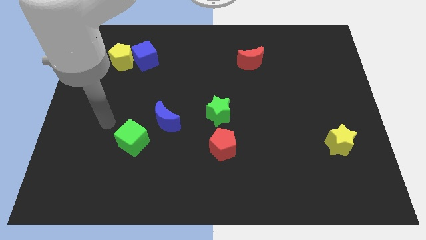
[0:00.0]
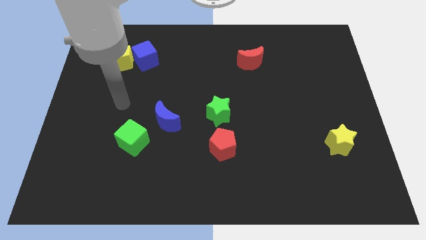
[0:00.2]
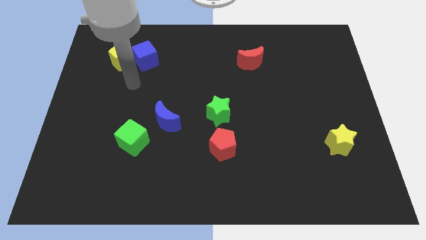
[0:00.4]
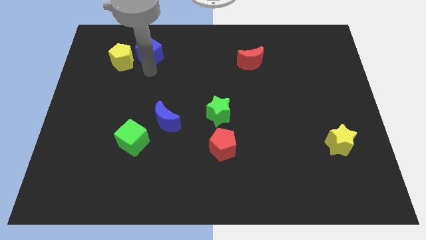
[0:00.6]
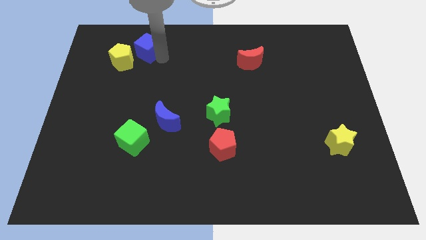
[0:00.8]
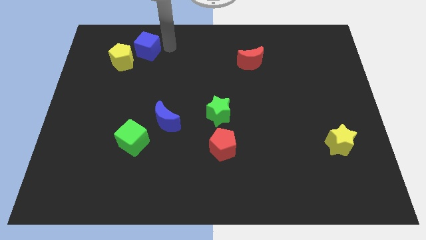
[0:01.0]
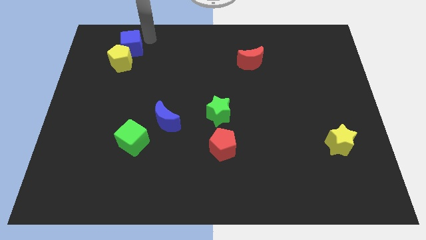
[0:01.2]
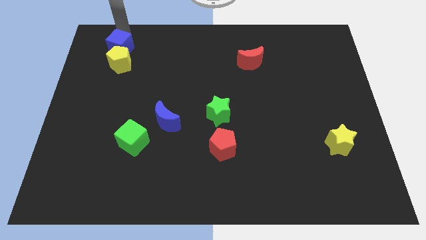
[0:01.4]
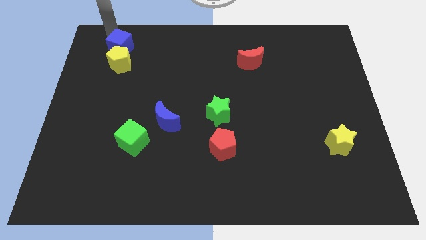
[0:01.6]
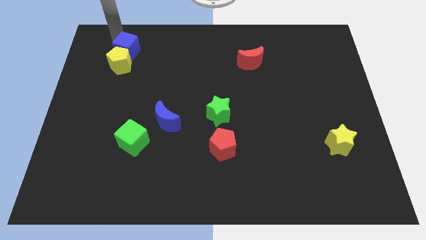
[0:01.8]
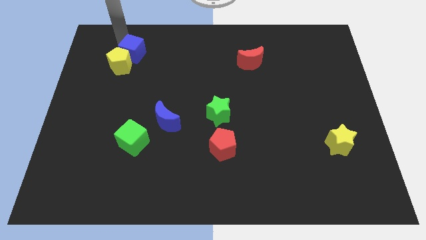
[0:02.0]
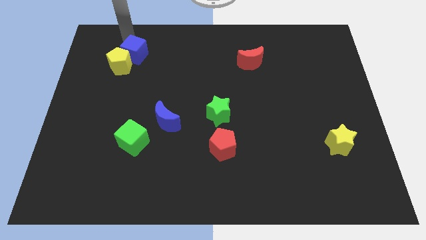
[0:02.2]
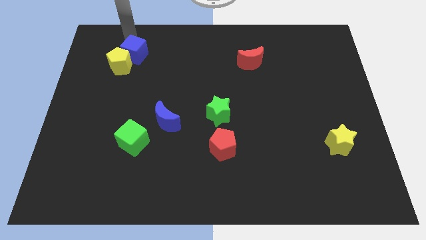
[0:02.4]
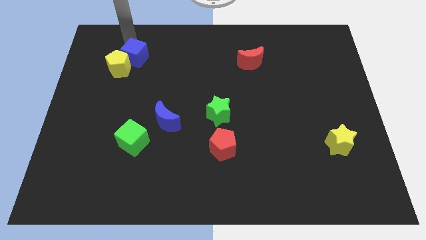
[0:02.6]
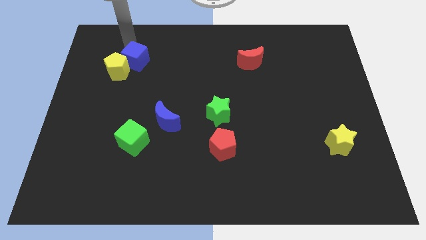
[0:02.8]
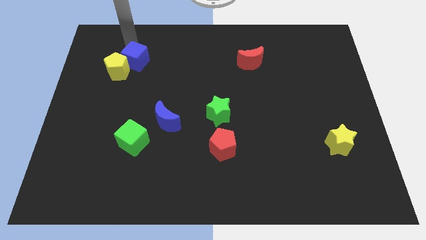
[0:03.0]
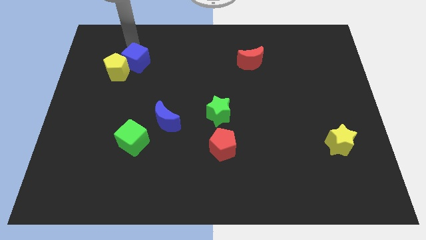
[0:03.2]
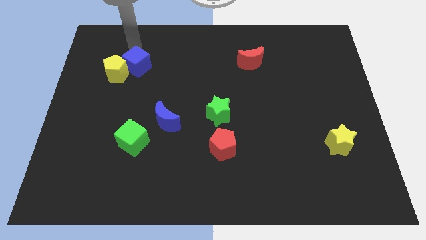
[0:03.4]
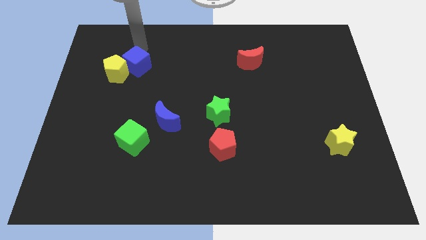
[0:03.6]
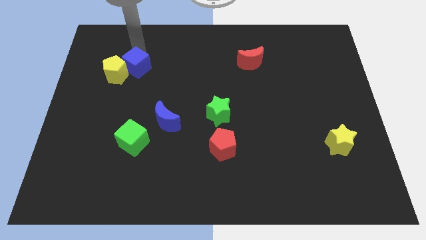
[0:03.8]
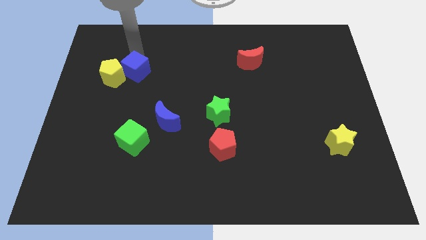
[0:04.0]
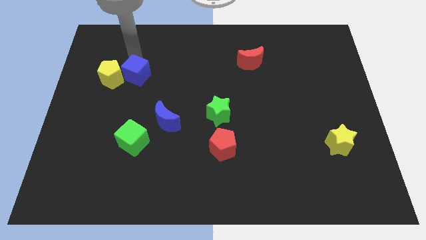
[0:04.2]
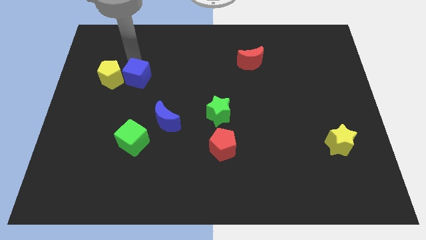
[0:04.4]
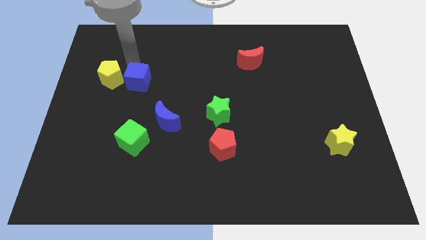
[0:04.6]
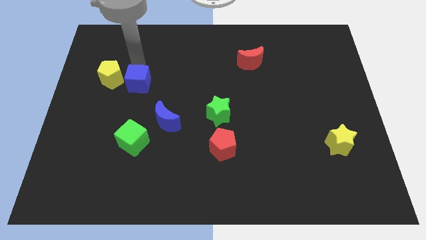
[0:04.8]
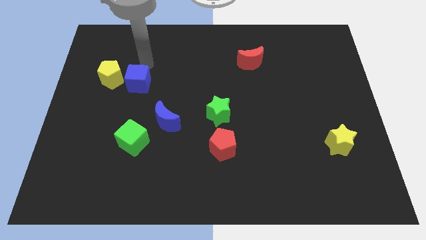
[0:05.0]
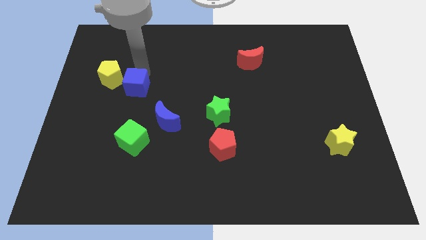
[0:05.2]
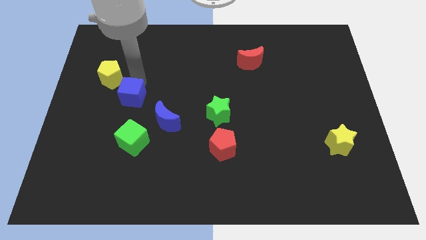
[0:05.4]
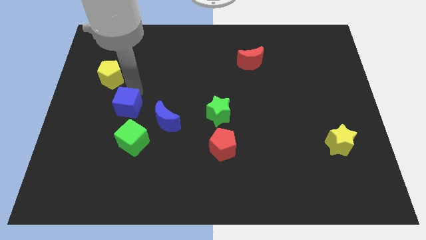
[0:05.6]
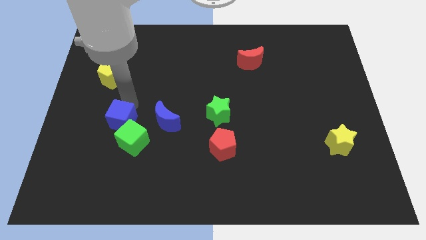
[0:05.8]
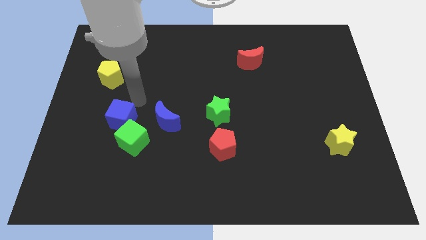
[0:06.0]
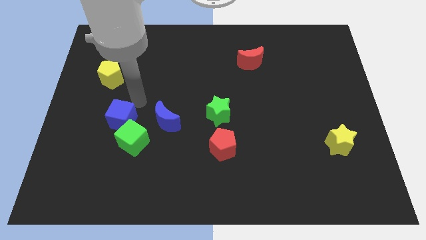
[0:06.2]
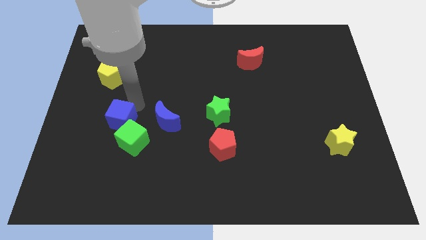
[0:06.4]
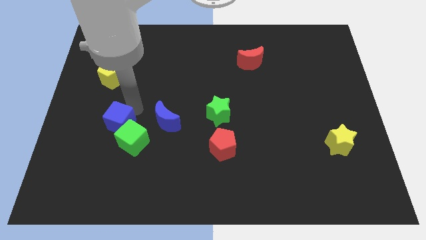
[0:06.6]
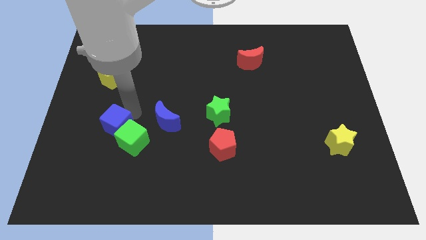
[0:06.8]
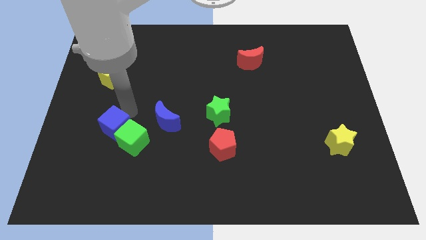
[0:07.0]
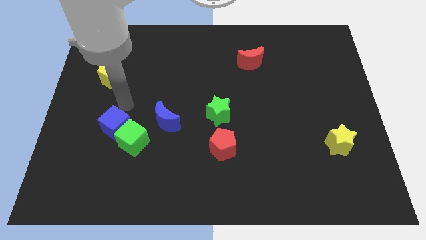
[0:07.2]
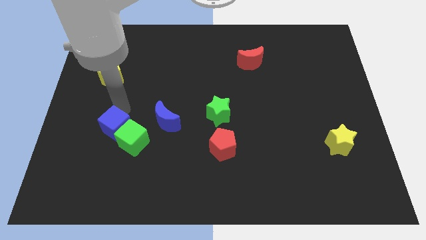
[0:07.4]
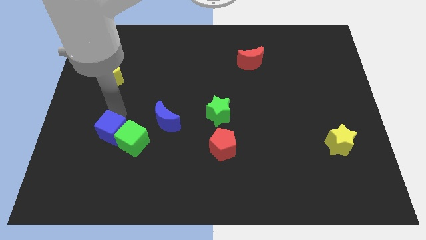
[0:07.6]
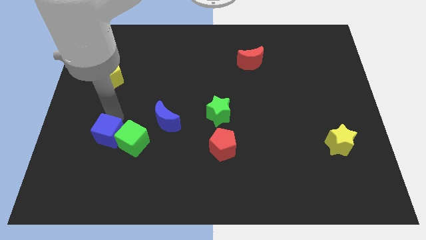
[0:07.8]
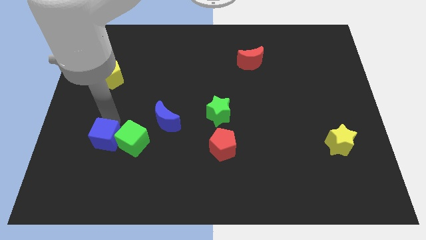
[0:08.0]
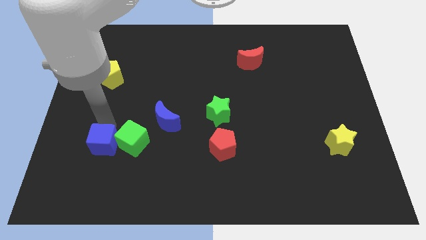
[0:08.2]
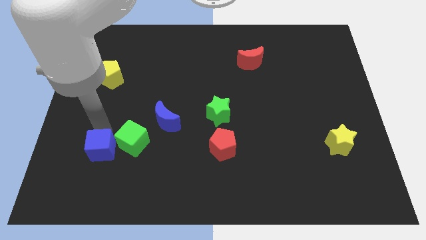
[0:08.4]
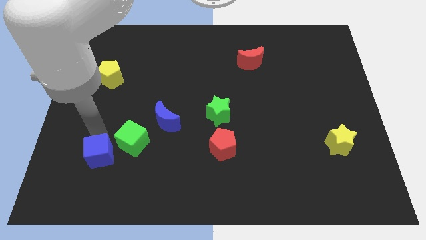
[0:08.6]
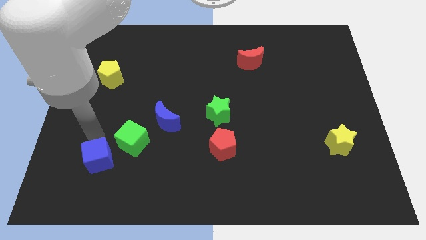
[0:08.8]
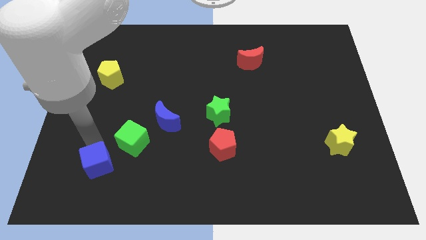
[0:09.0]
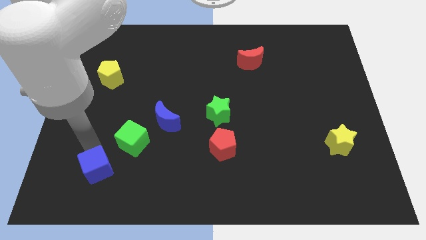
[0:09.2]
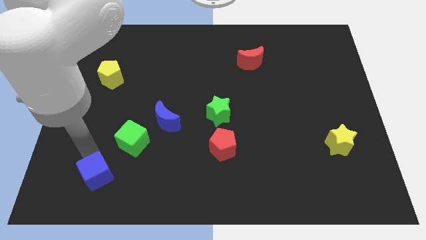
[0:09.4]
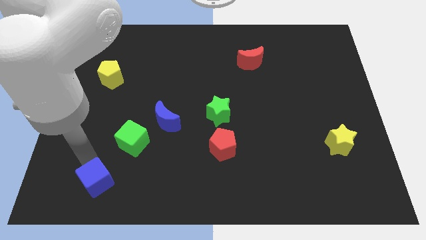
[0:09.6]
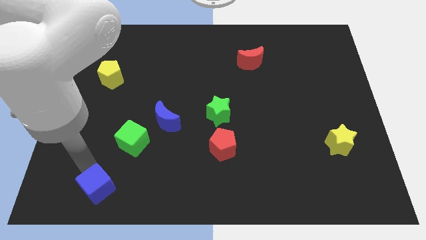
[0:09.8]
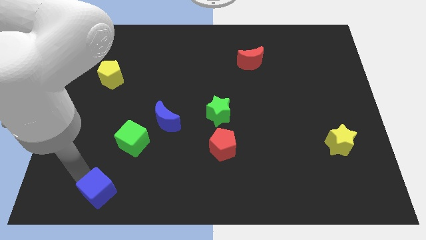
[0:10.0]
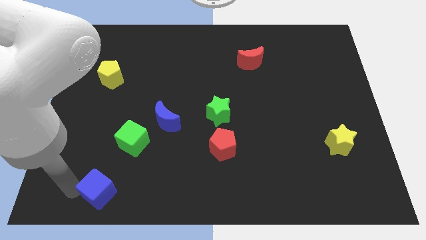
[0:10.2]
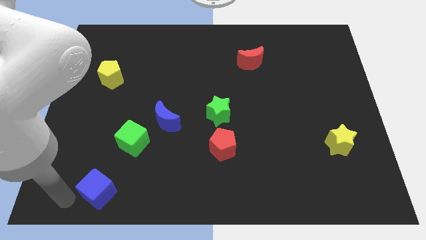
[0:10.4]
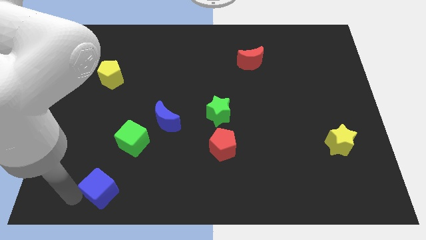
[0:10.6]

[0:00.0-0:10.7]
move the blue cube to the bottom of the green cube

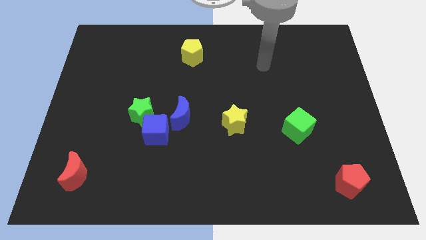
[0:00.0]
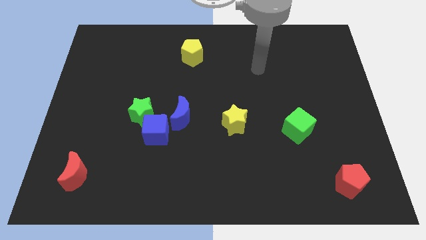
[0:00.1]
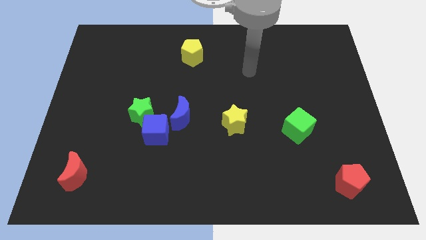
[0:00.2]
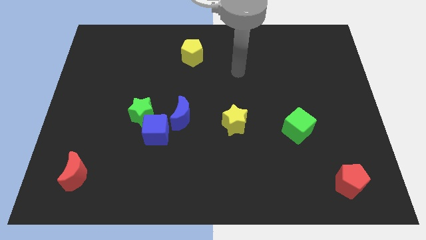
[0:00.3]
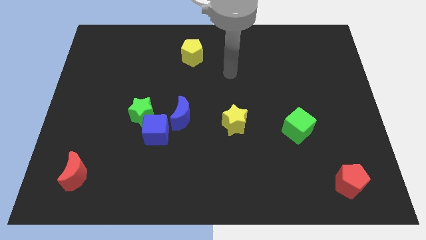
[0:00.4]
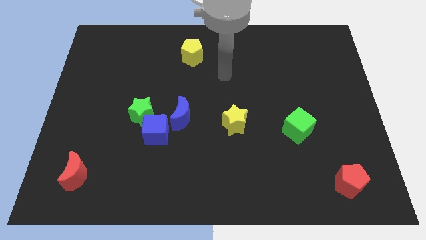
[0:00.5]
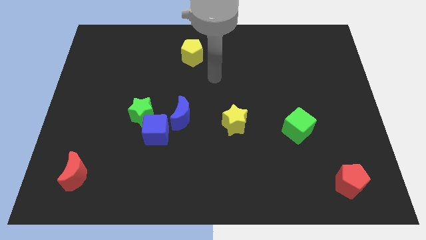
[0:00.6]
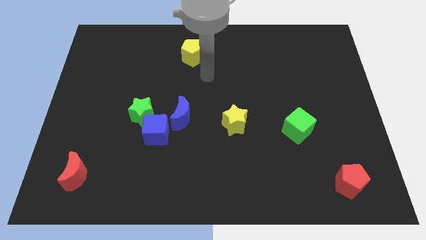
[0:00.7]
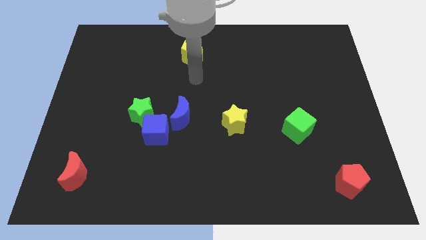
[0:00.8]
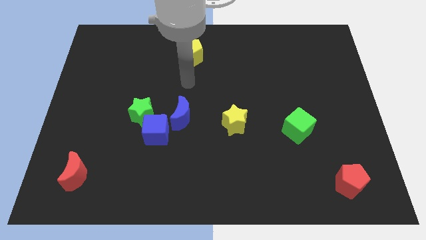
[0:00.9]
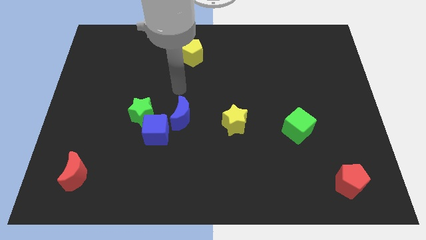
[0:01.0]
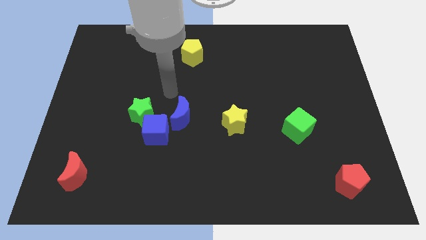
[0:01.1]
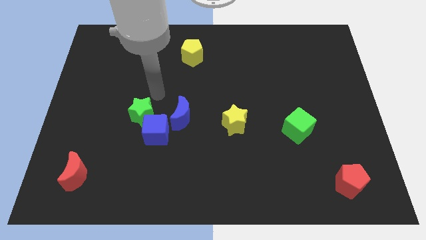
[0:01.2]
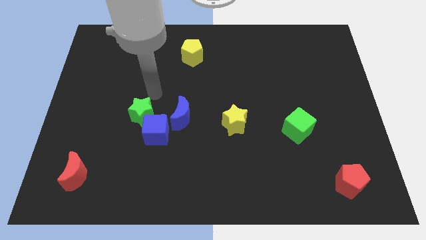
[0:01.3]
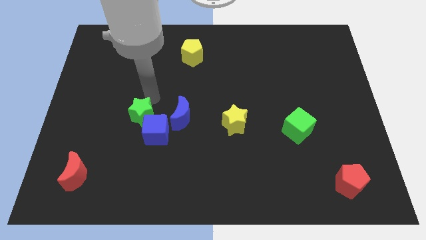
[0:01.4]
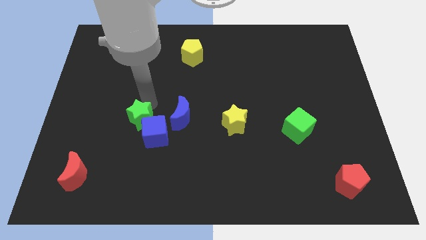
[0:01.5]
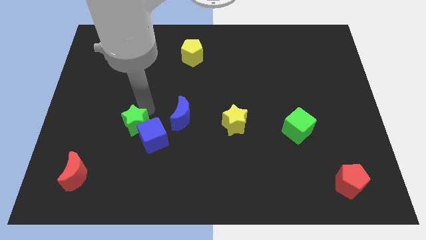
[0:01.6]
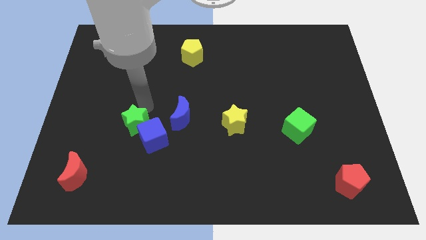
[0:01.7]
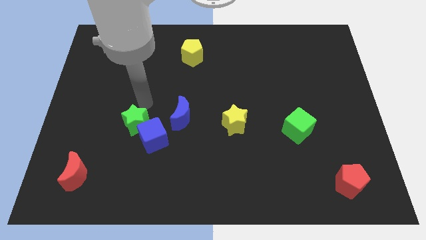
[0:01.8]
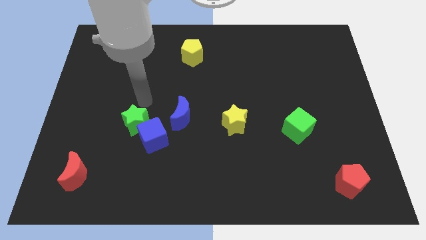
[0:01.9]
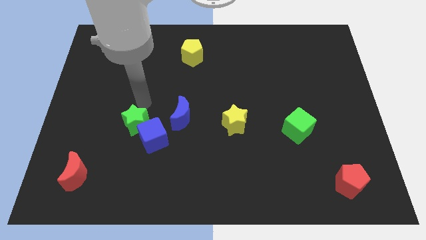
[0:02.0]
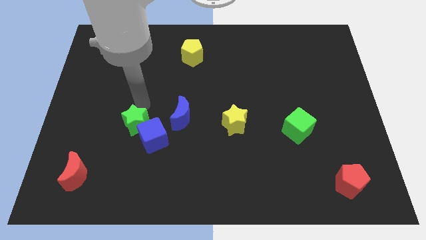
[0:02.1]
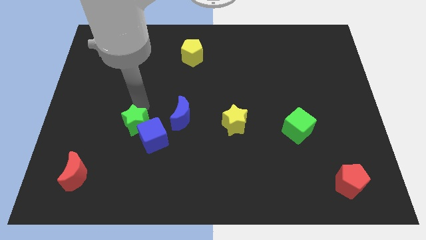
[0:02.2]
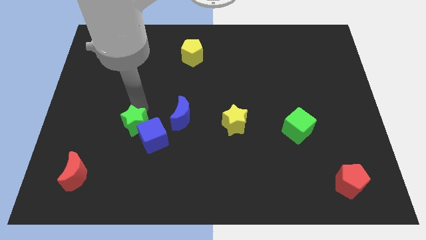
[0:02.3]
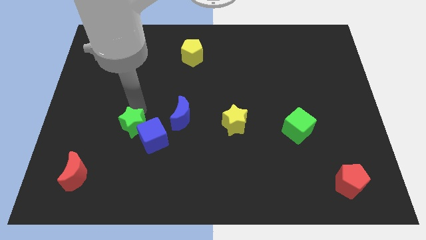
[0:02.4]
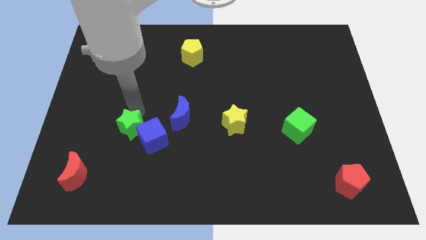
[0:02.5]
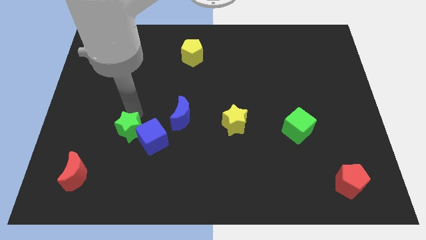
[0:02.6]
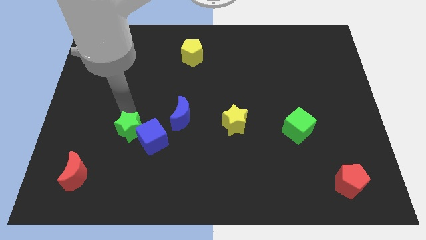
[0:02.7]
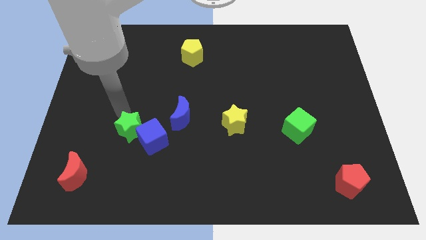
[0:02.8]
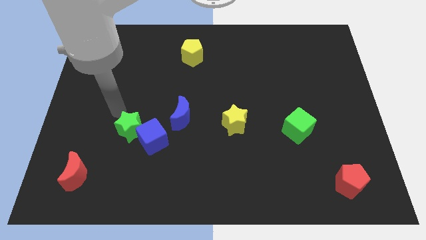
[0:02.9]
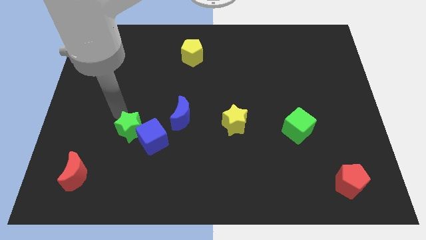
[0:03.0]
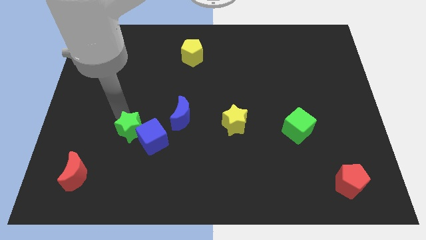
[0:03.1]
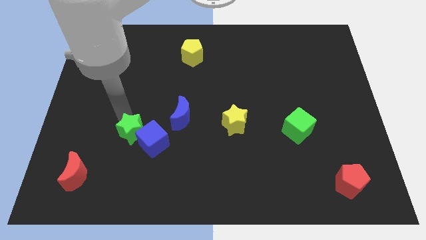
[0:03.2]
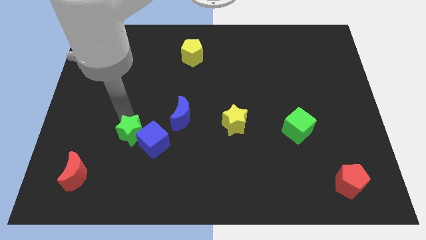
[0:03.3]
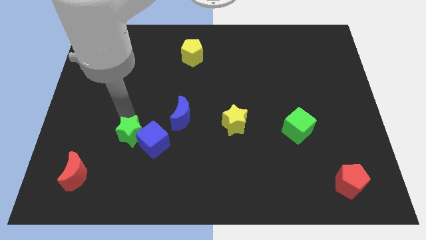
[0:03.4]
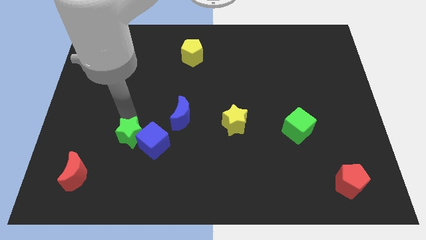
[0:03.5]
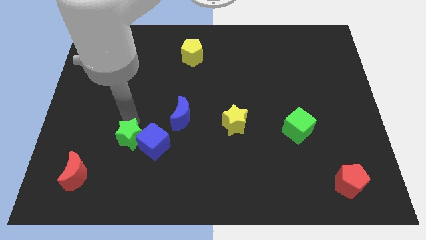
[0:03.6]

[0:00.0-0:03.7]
move the green star to the bottom left of the blue moon
